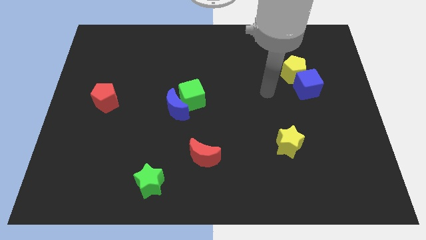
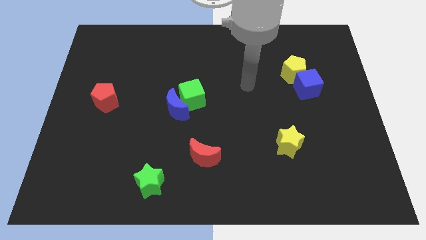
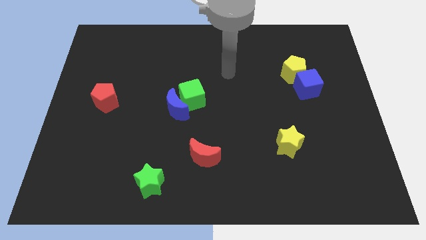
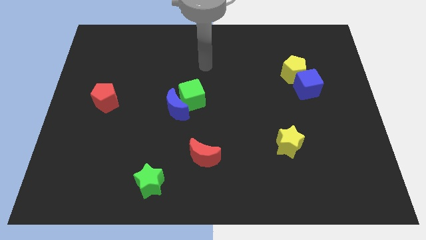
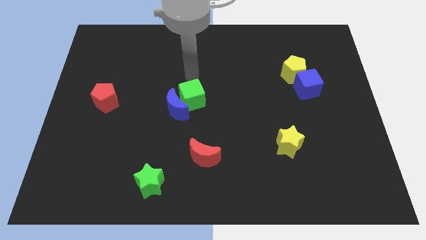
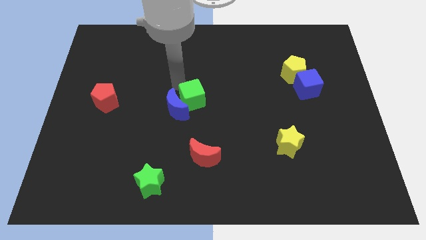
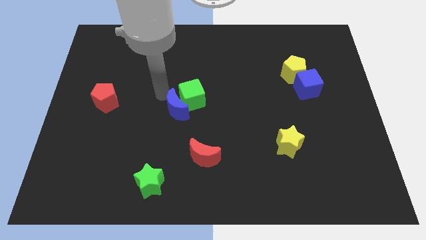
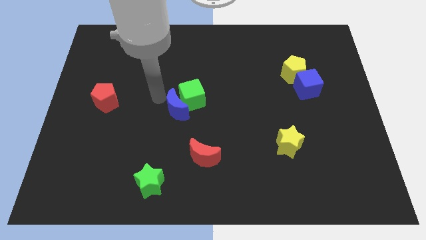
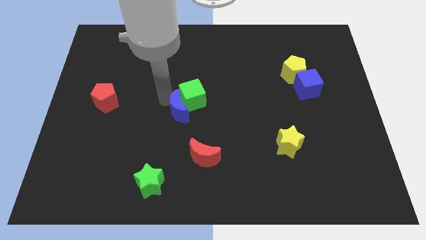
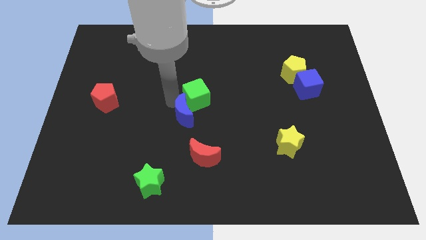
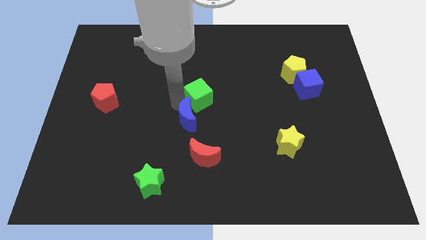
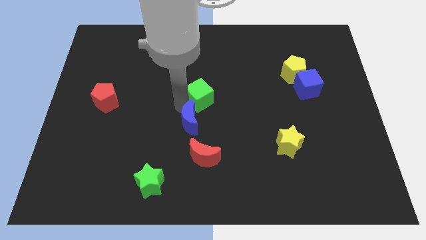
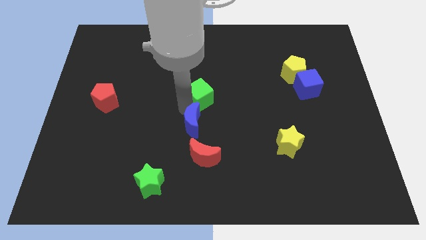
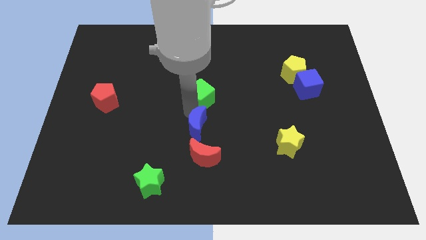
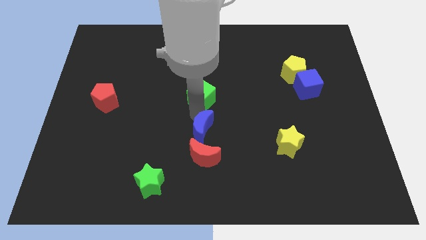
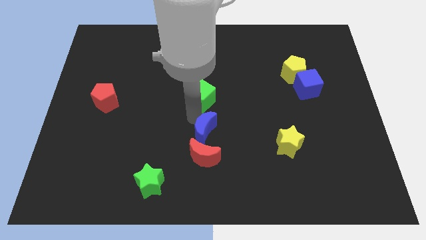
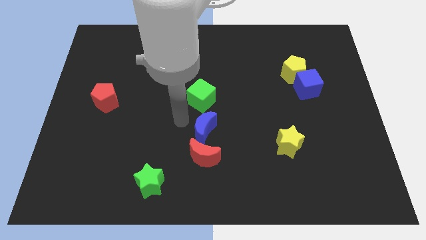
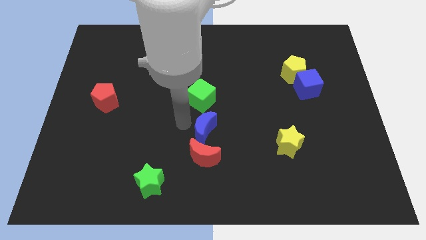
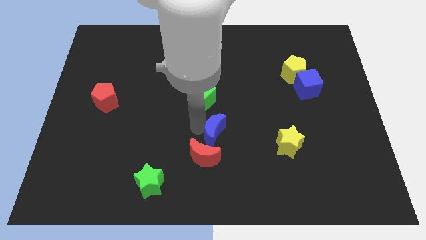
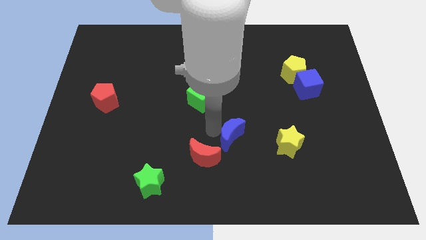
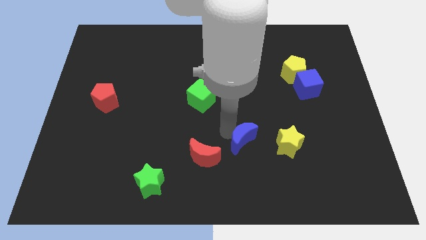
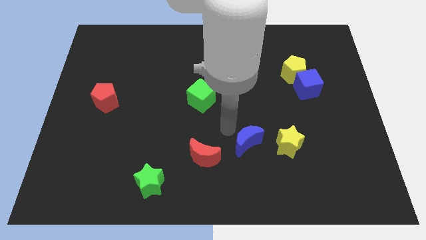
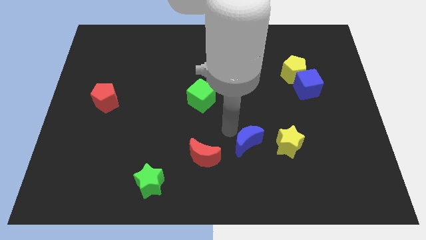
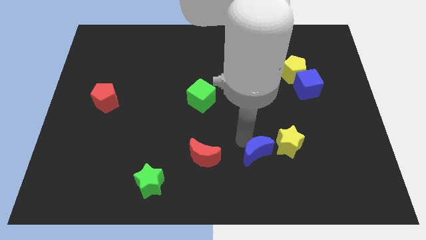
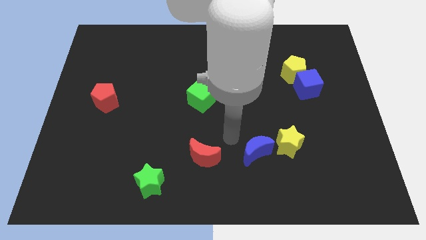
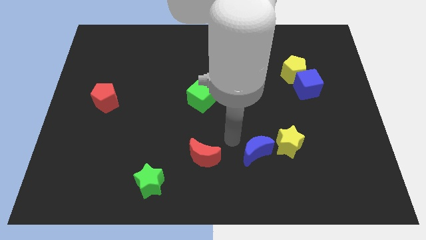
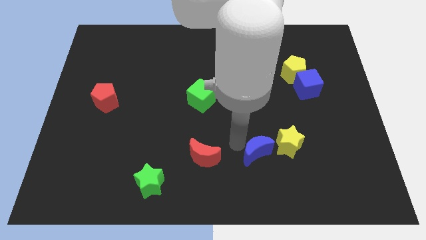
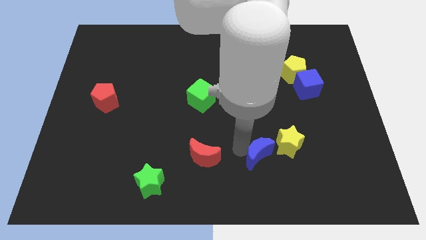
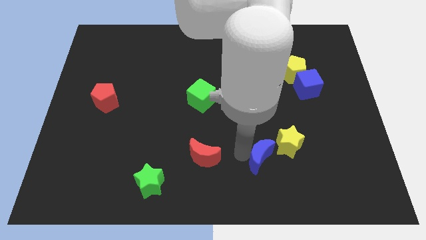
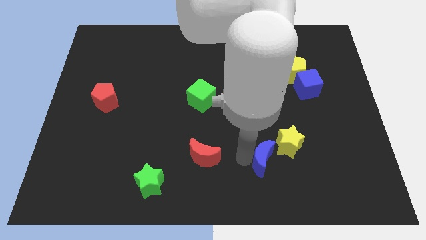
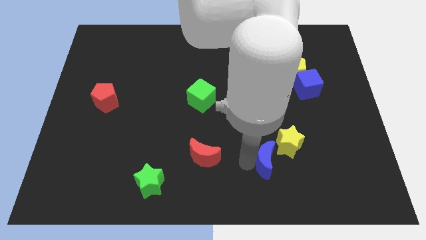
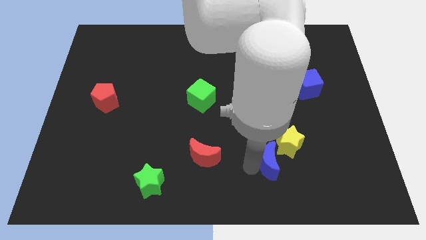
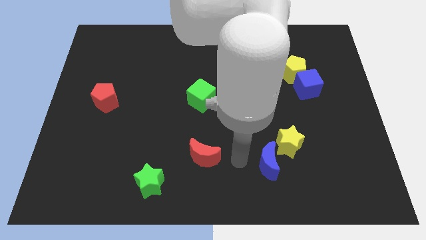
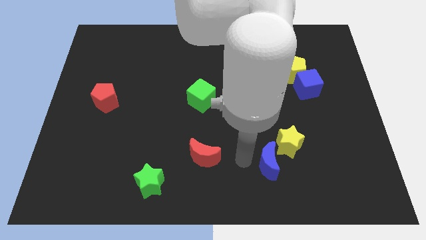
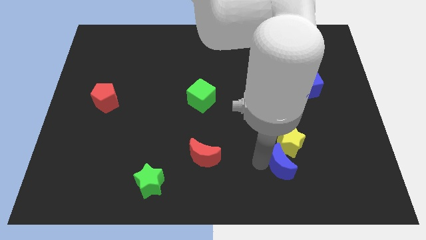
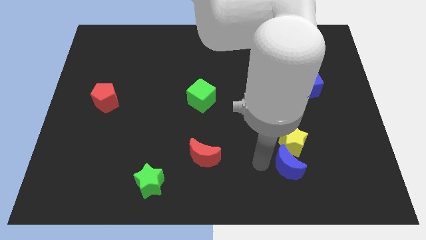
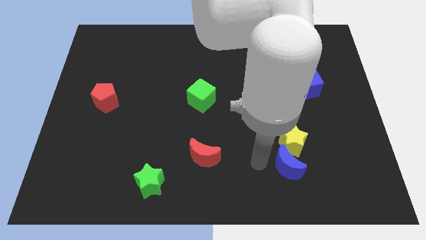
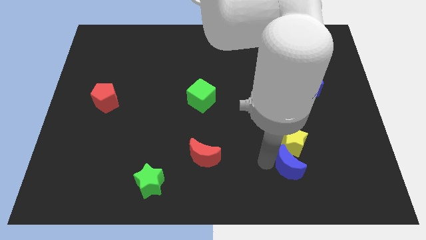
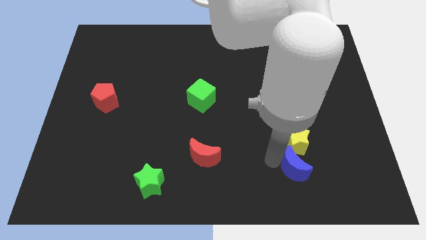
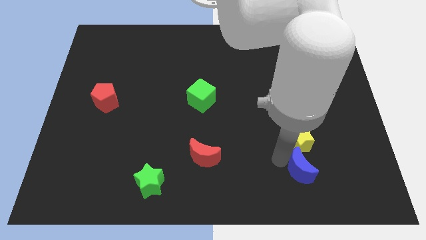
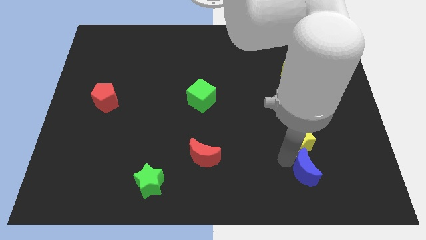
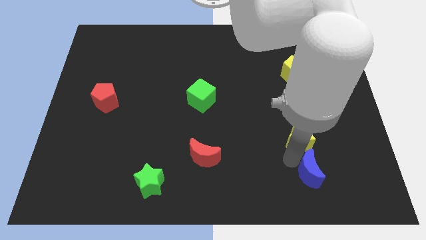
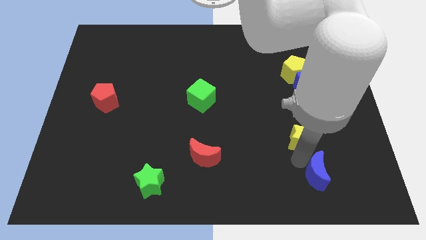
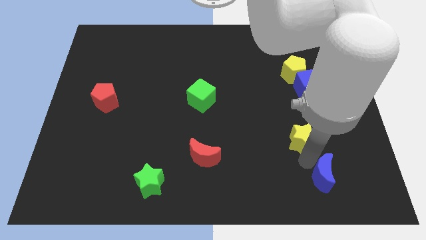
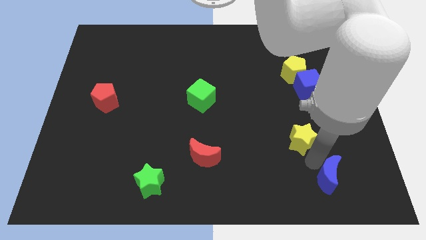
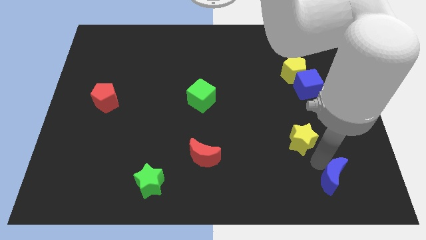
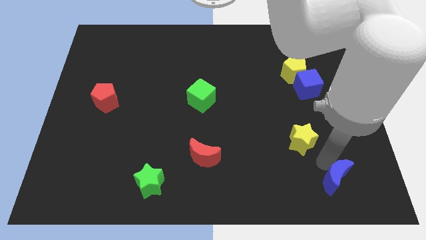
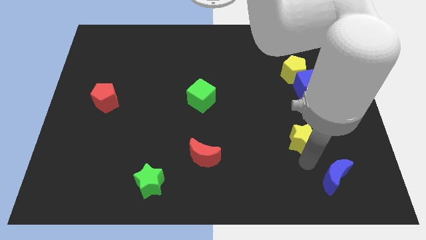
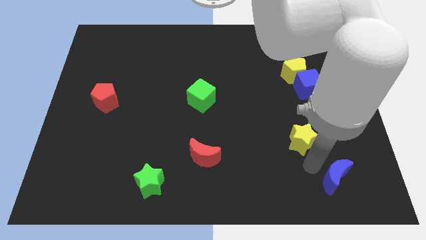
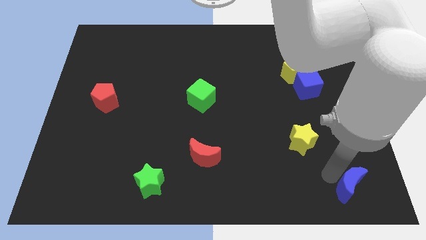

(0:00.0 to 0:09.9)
push the blue moon to the bottom right

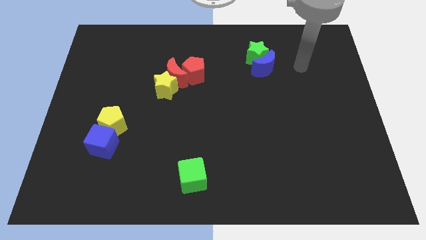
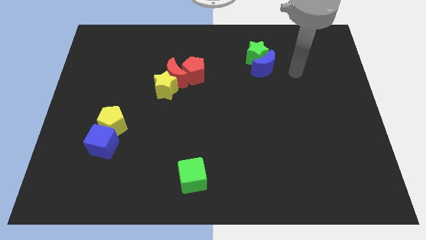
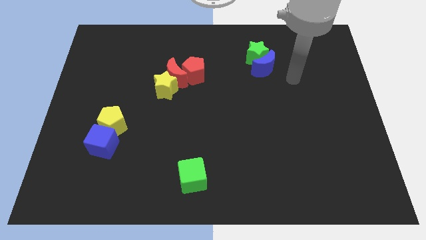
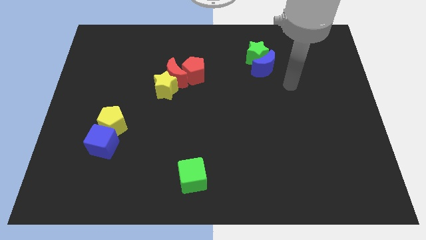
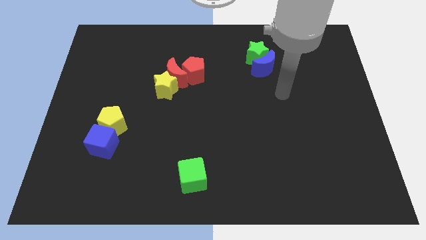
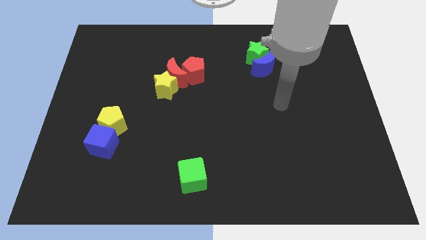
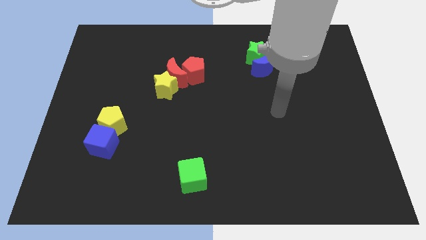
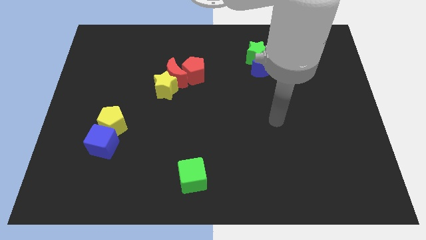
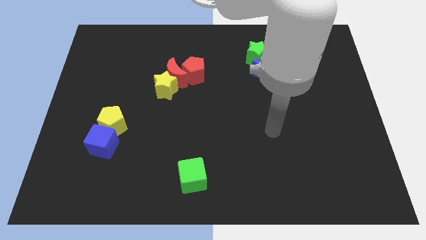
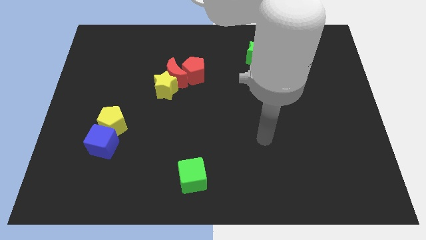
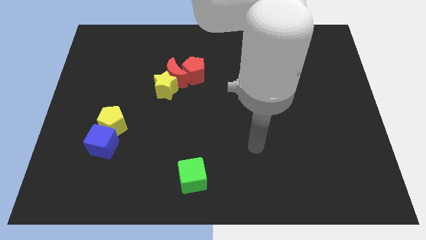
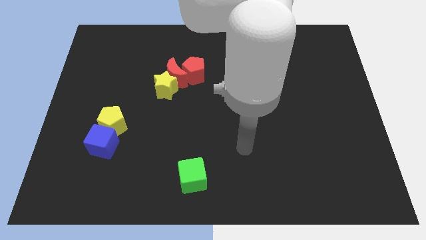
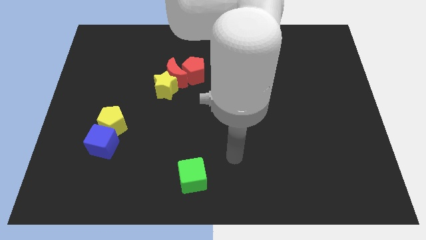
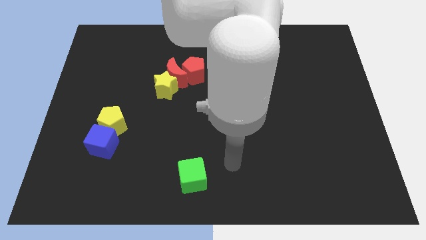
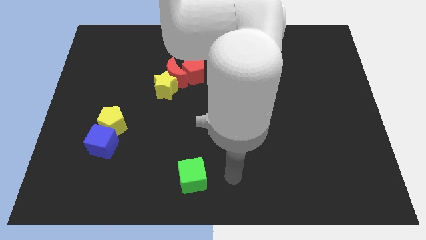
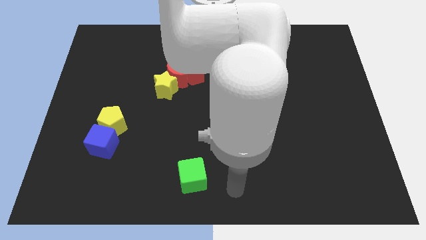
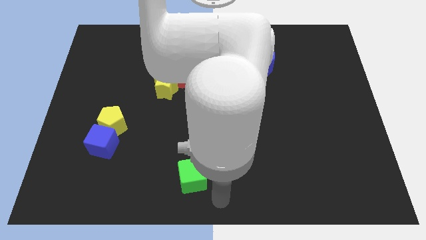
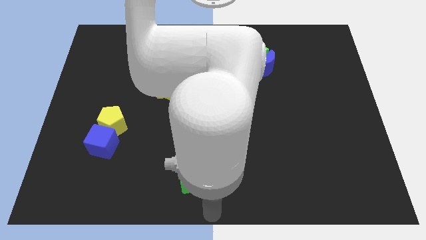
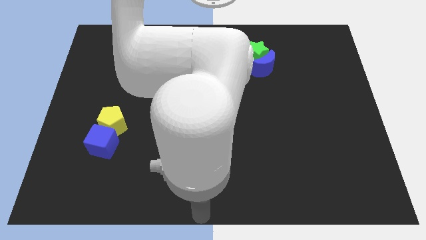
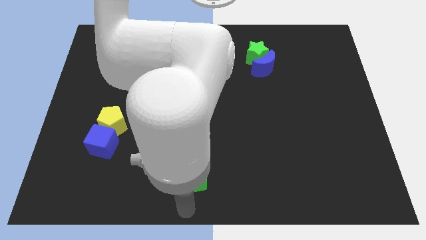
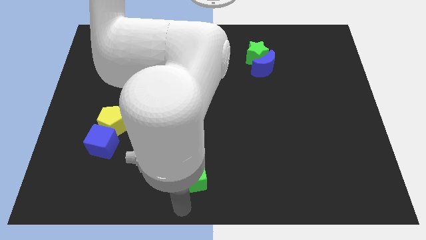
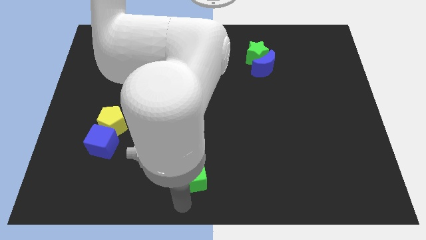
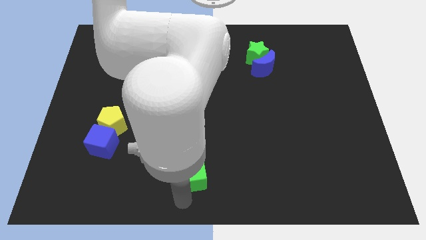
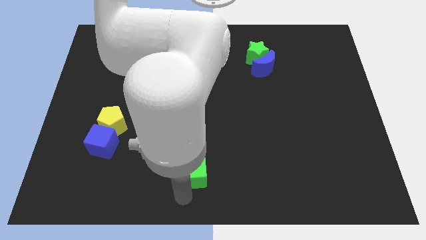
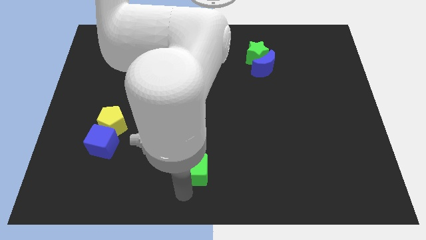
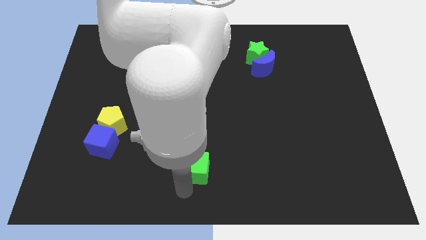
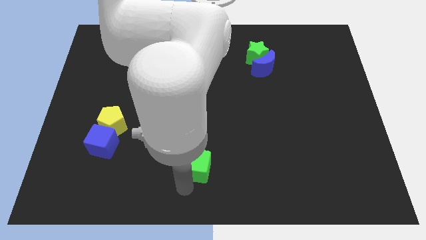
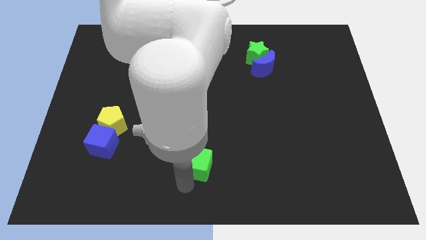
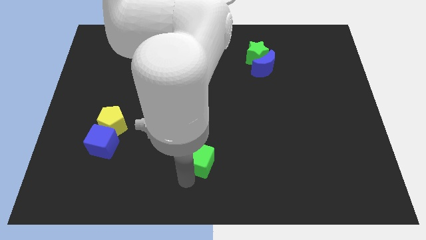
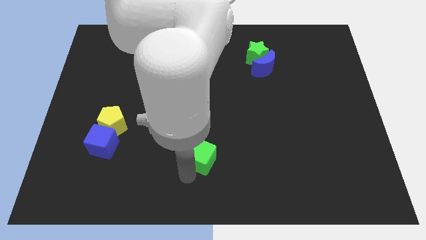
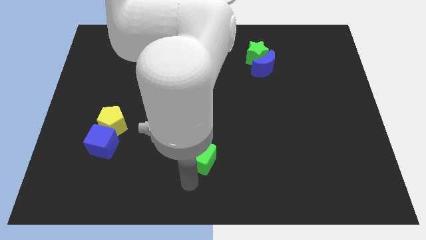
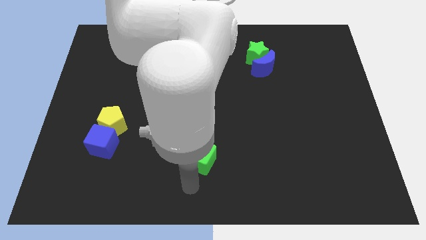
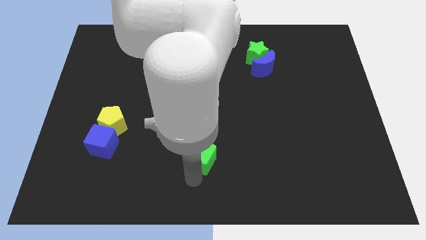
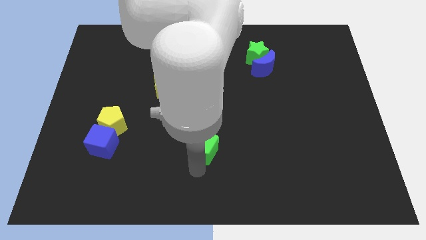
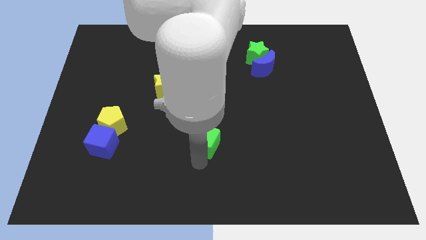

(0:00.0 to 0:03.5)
put the green cube to the center of the board
